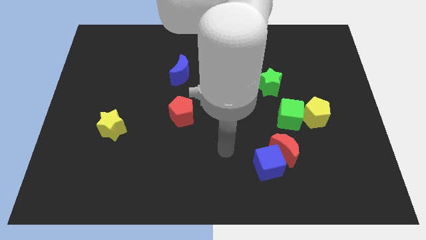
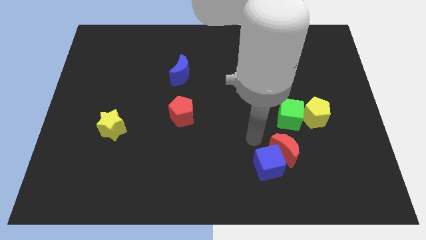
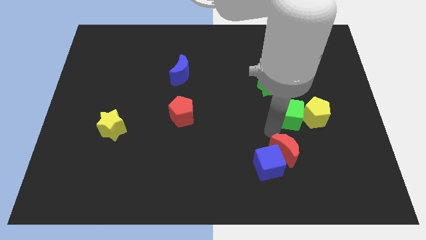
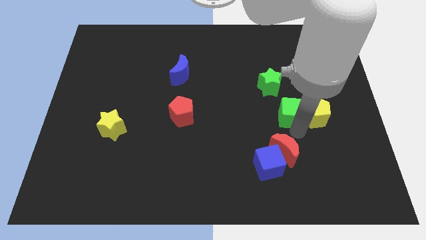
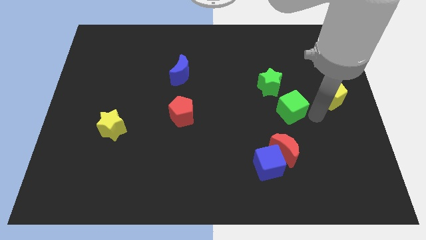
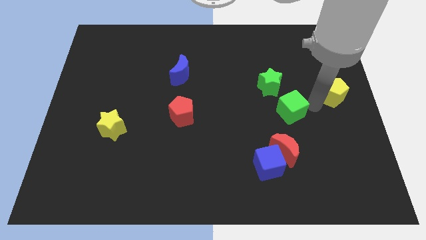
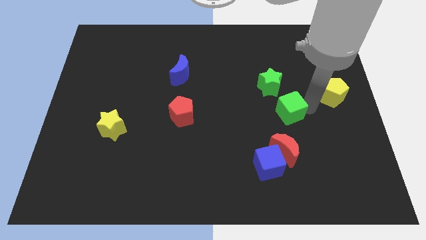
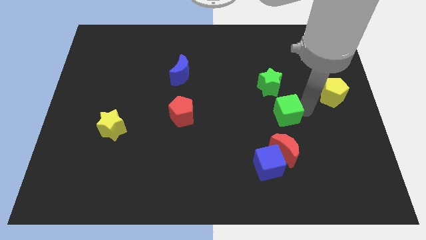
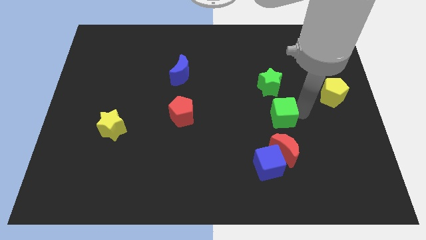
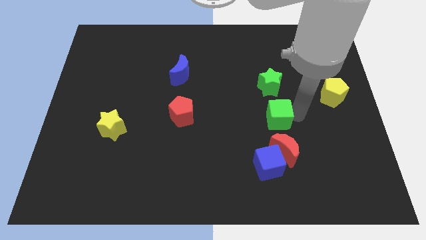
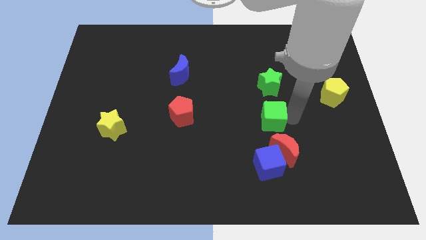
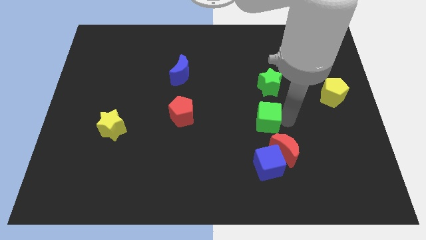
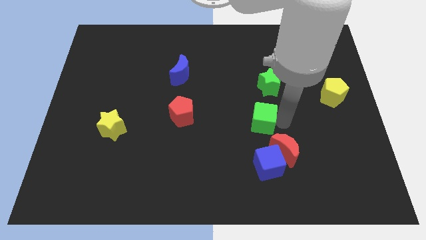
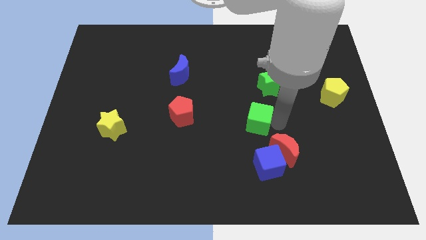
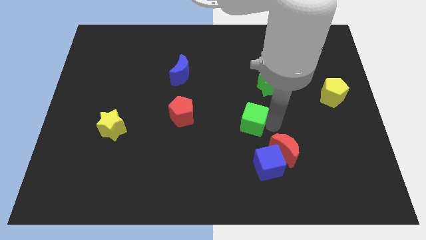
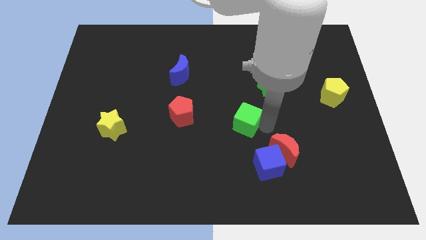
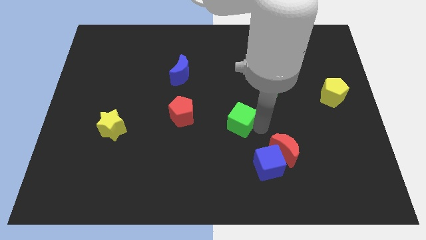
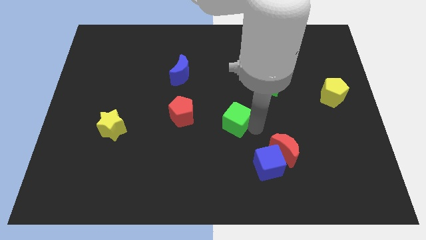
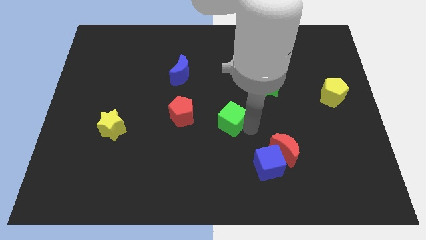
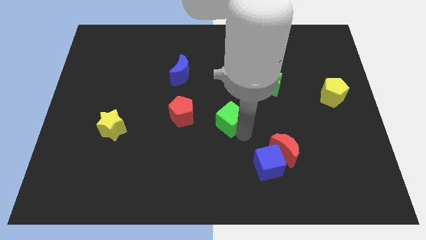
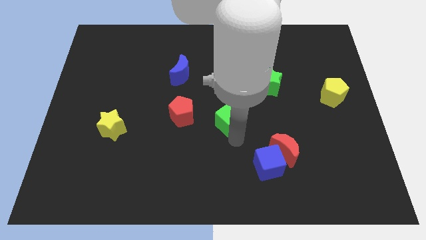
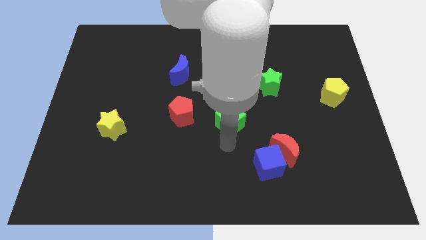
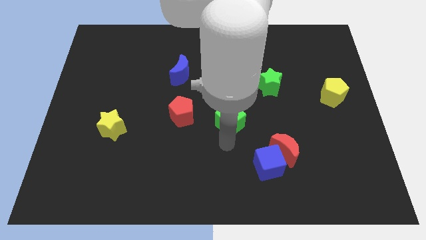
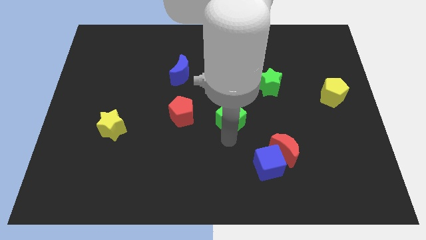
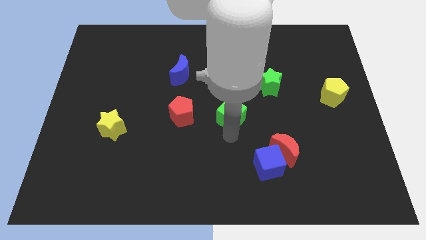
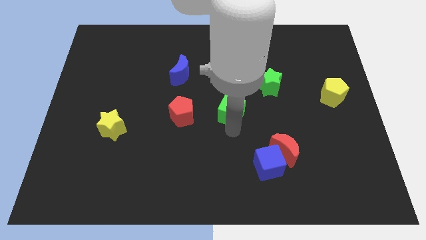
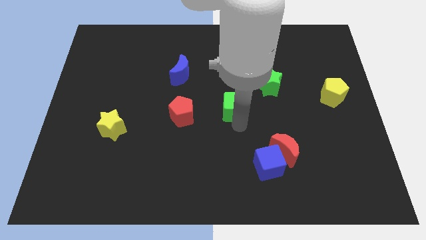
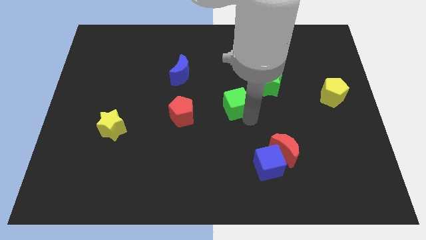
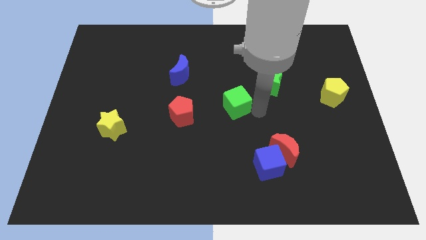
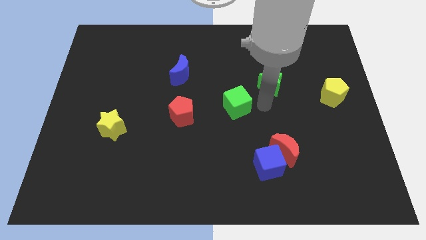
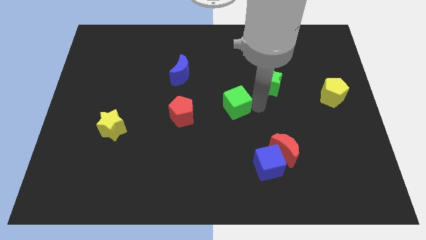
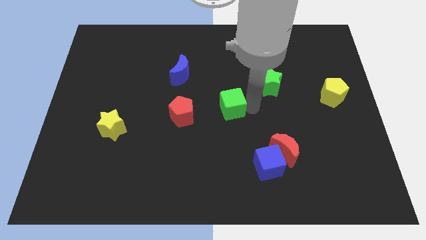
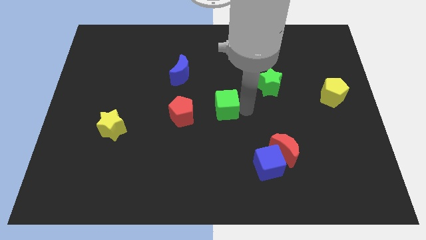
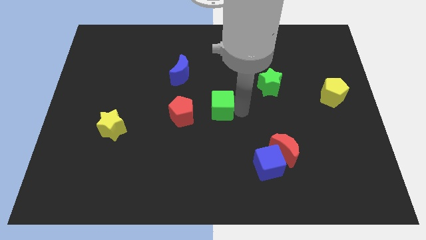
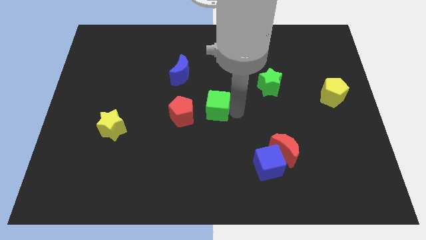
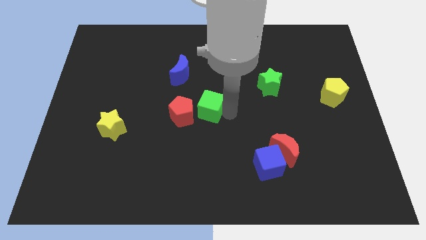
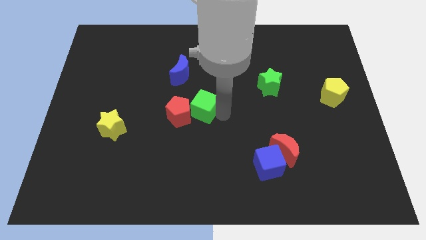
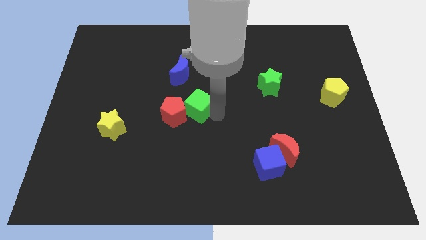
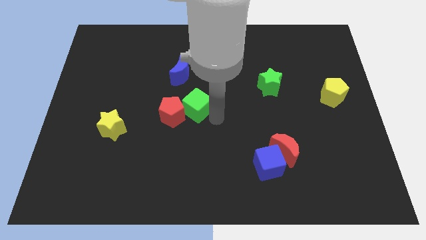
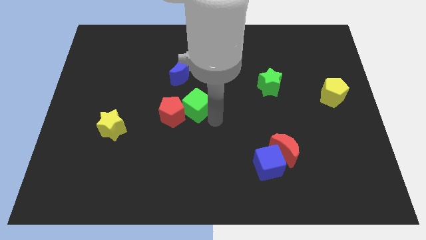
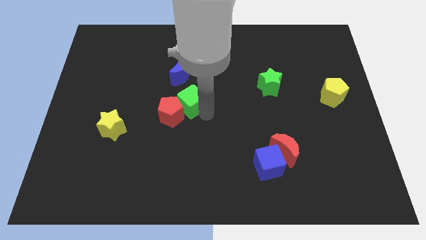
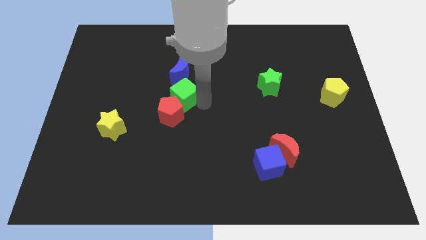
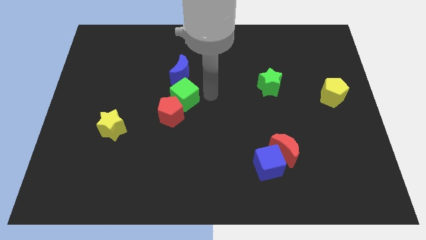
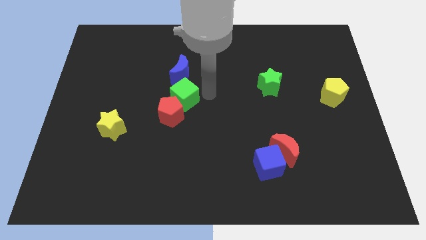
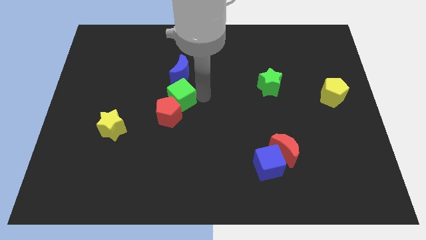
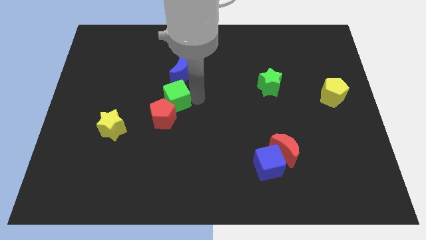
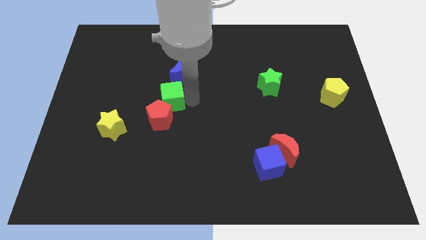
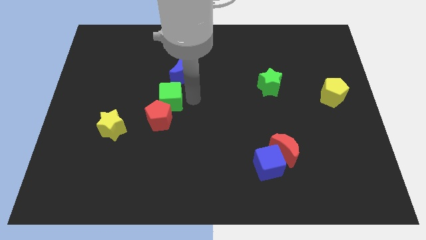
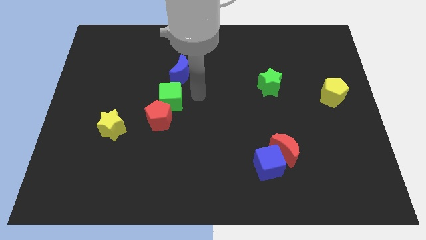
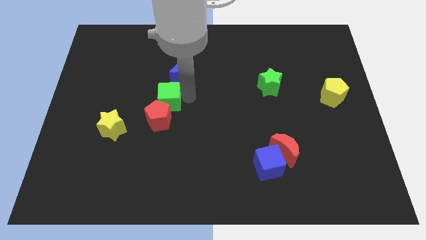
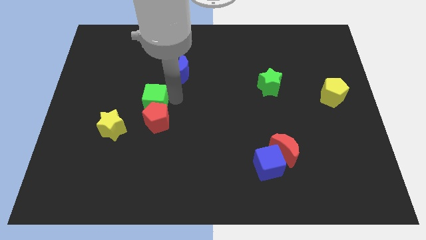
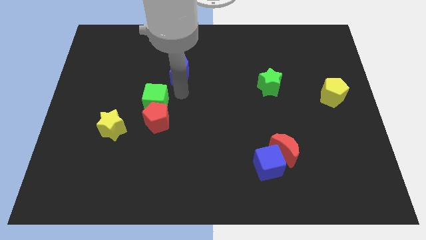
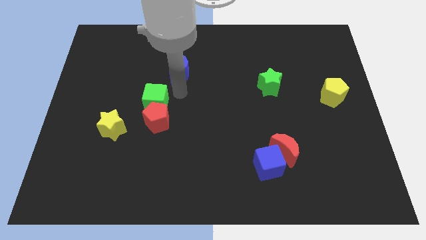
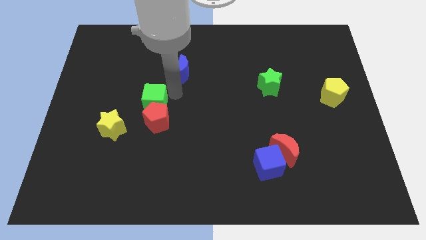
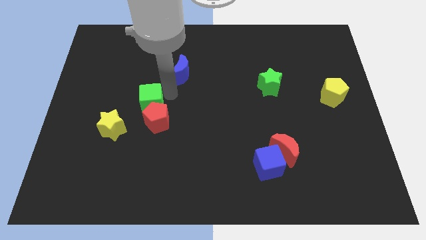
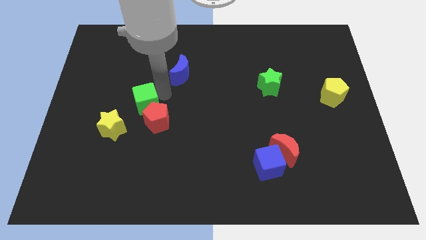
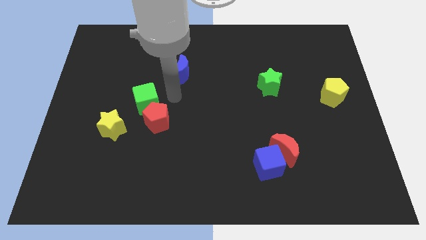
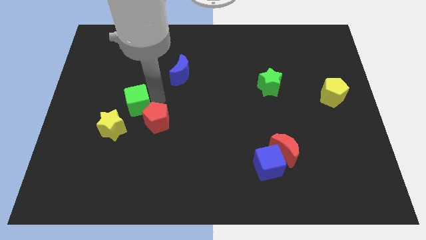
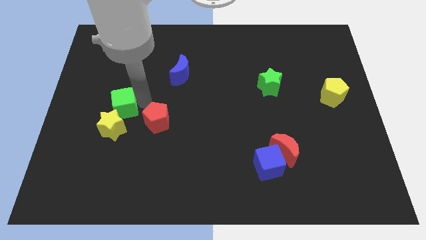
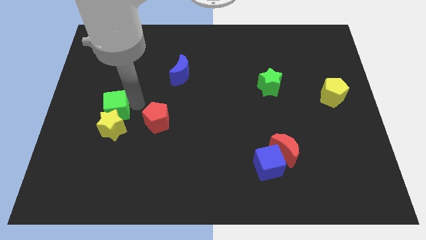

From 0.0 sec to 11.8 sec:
put the green cube diagonally up and to the left of the yellow star
